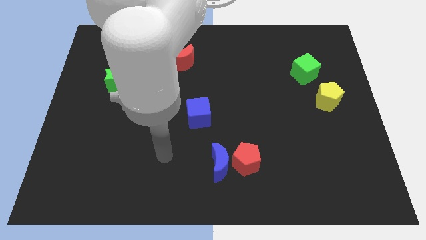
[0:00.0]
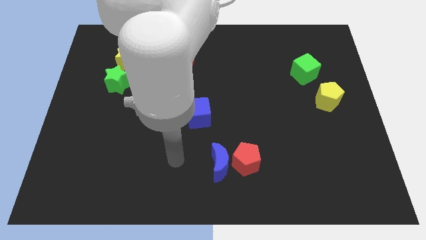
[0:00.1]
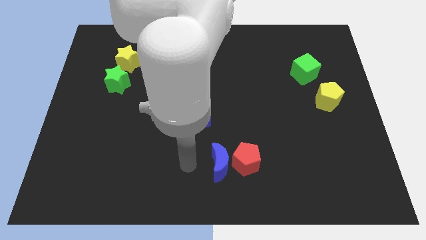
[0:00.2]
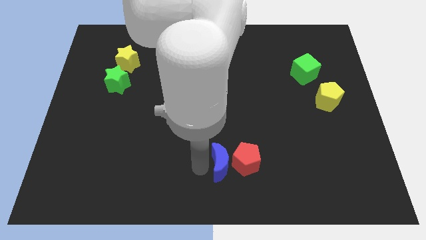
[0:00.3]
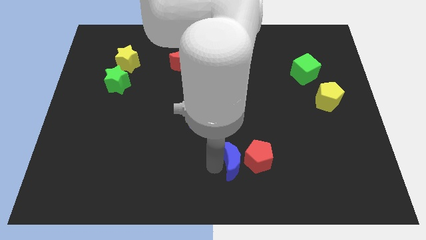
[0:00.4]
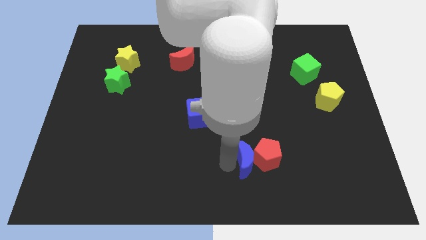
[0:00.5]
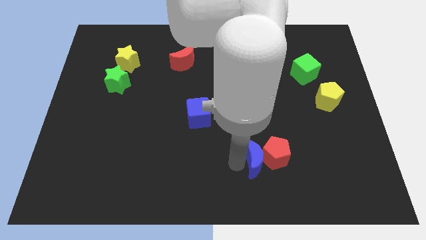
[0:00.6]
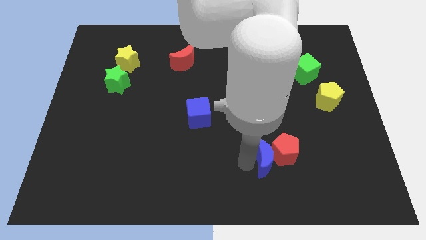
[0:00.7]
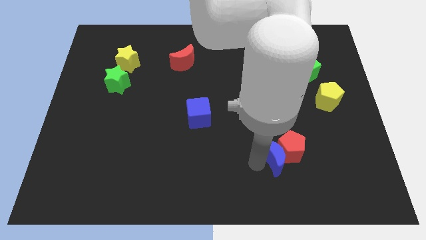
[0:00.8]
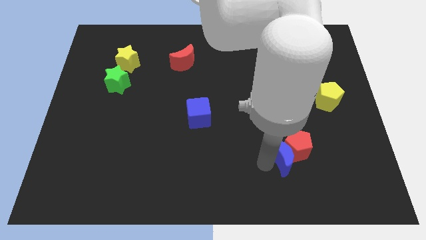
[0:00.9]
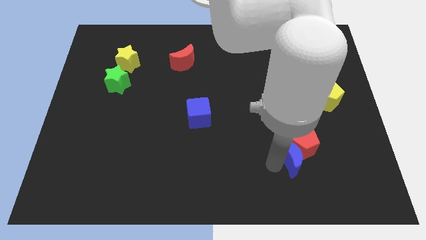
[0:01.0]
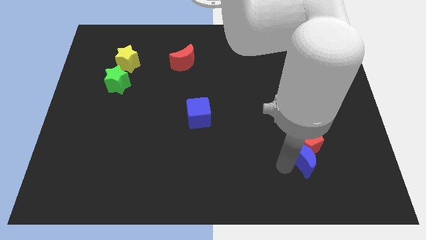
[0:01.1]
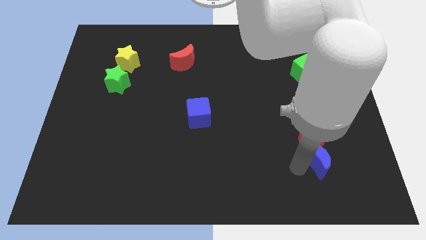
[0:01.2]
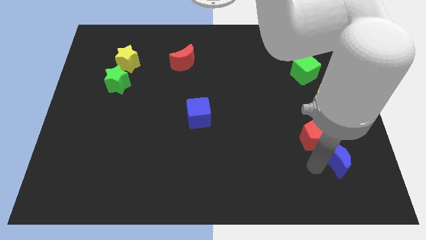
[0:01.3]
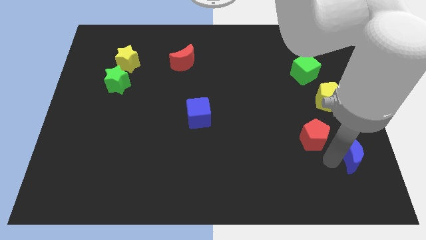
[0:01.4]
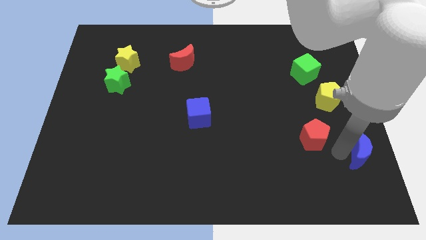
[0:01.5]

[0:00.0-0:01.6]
pull the red pentagon apart from the blue moon

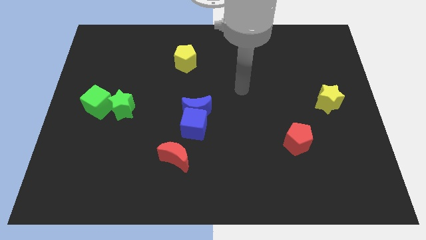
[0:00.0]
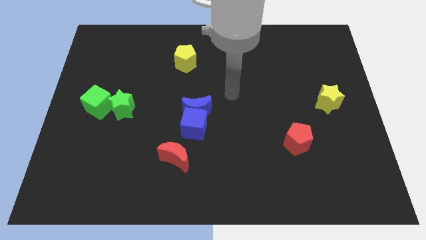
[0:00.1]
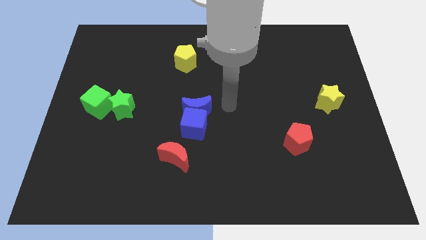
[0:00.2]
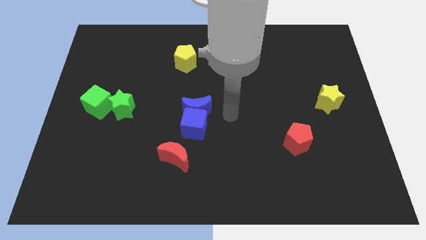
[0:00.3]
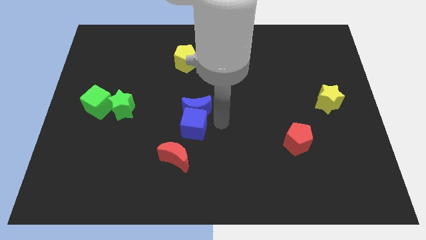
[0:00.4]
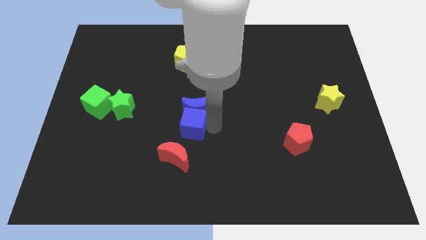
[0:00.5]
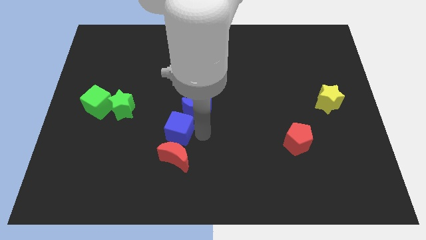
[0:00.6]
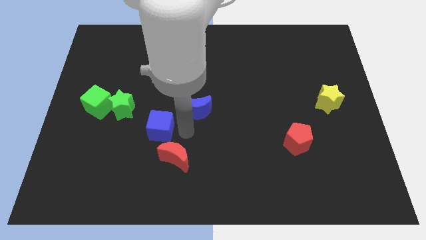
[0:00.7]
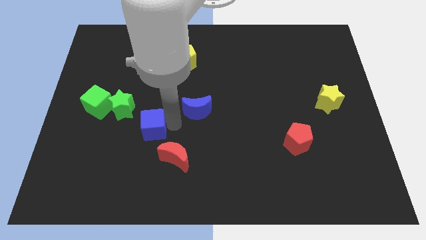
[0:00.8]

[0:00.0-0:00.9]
pull the blue moon apart from the blue cube

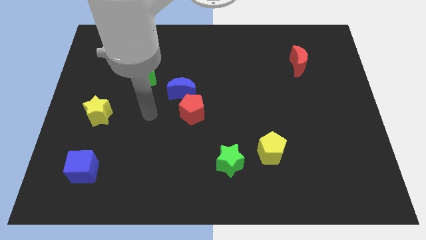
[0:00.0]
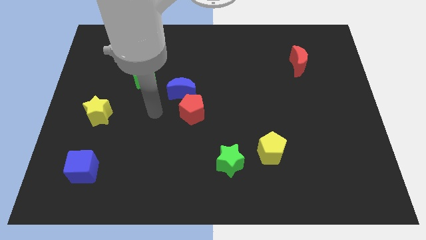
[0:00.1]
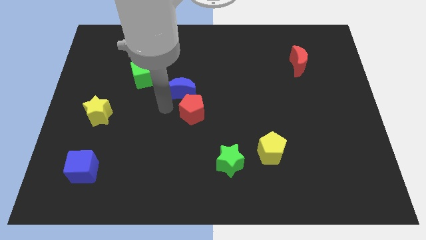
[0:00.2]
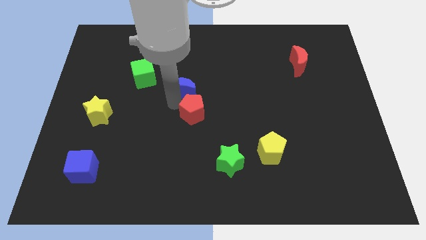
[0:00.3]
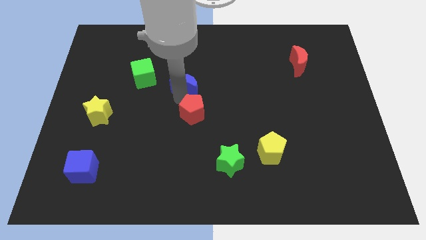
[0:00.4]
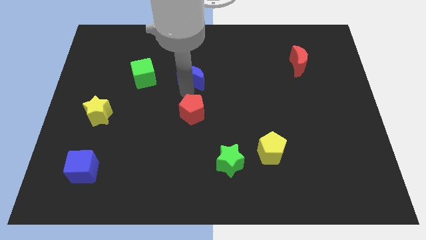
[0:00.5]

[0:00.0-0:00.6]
separate the red pentagon from the blue moon

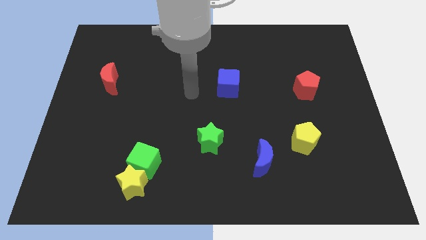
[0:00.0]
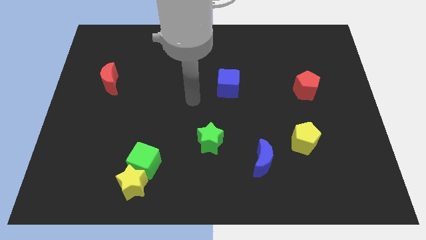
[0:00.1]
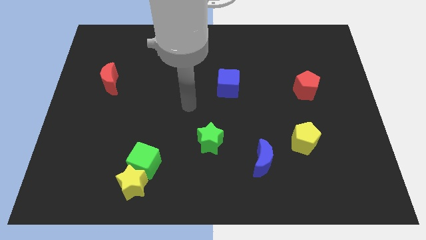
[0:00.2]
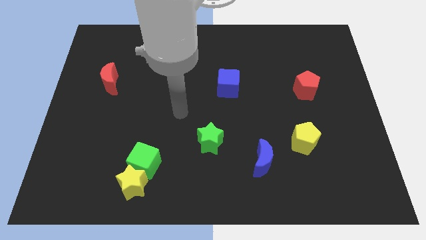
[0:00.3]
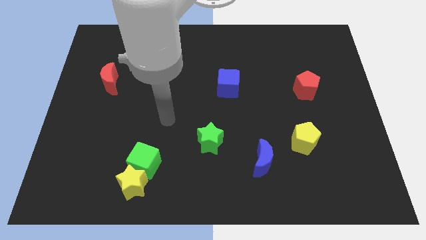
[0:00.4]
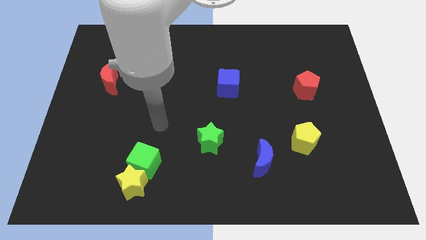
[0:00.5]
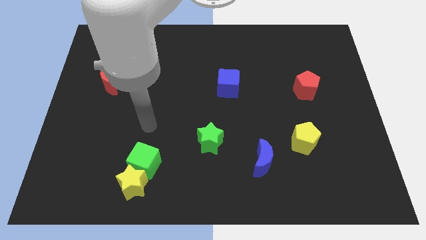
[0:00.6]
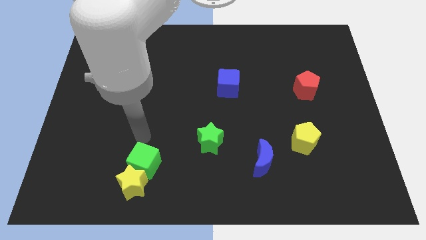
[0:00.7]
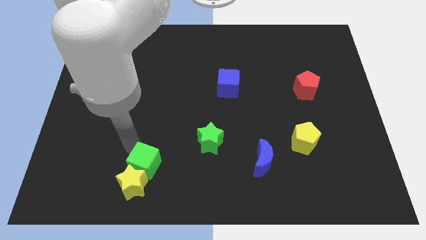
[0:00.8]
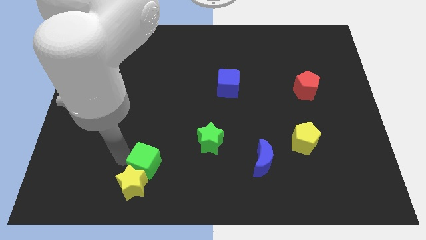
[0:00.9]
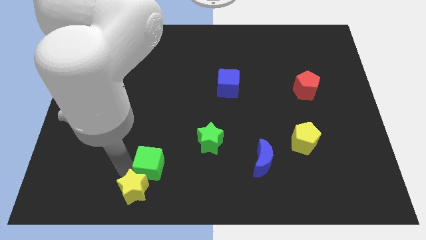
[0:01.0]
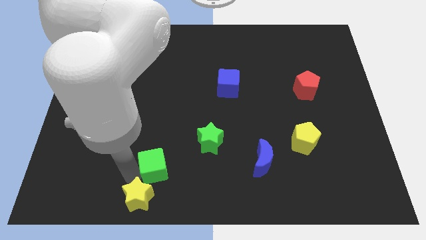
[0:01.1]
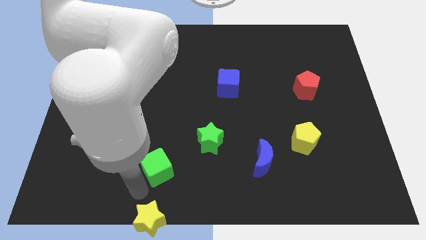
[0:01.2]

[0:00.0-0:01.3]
separate the green cube from the yellow star

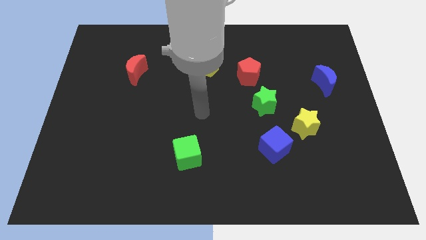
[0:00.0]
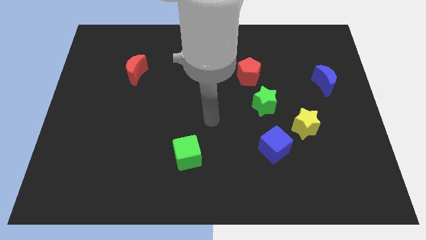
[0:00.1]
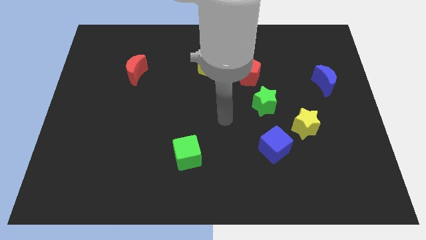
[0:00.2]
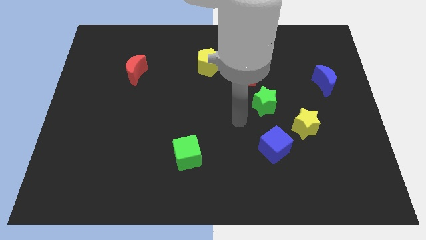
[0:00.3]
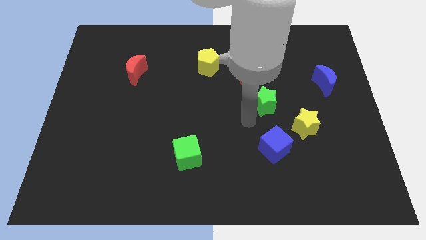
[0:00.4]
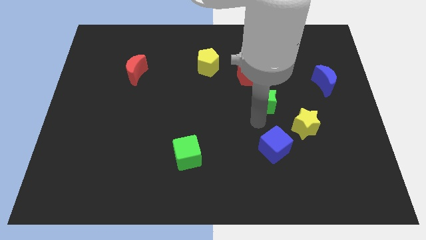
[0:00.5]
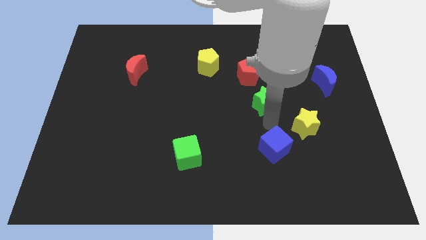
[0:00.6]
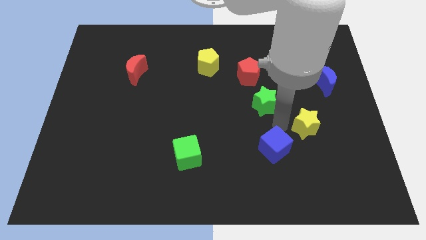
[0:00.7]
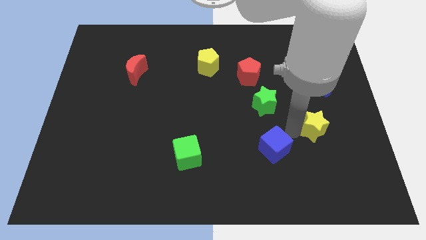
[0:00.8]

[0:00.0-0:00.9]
separate the blue cube from the yellow star

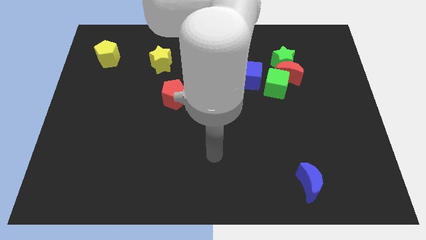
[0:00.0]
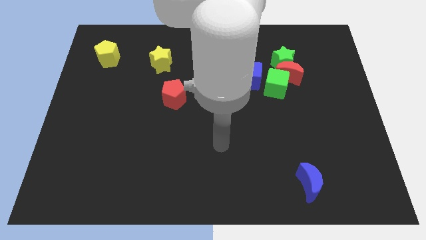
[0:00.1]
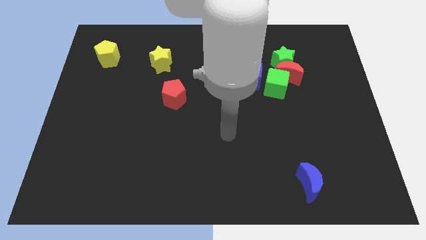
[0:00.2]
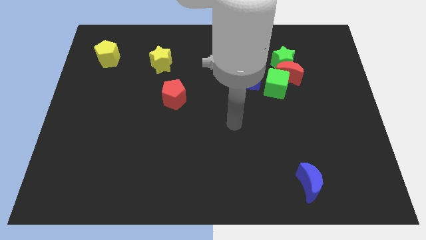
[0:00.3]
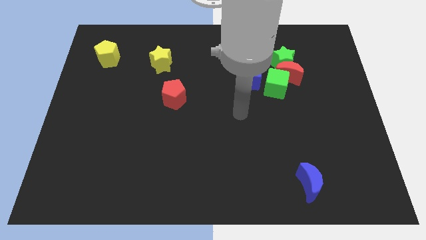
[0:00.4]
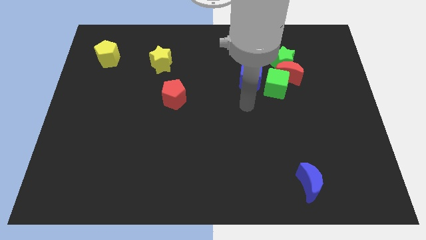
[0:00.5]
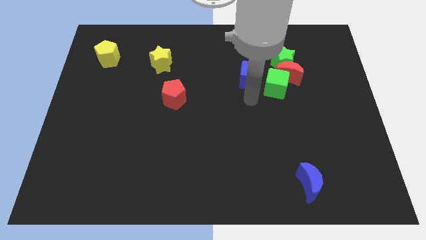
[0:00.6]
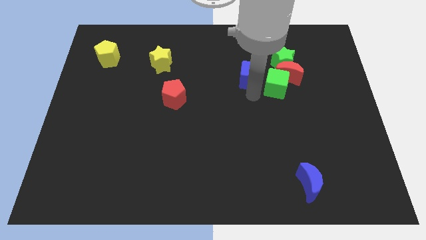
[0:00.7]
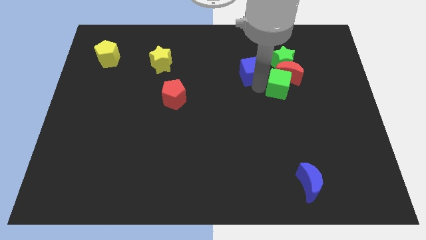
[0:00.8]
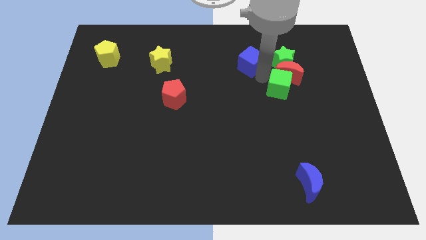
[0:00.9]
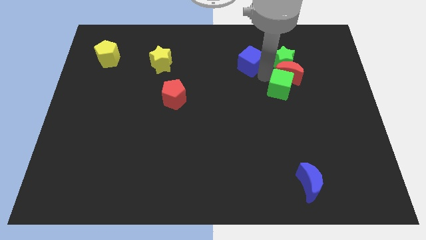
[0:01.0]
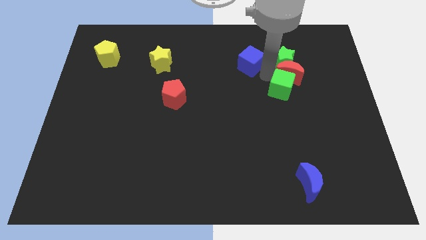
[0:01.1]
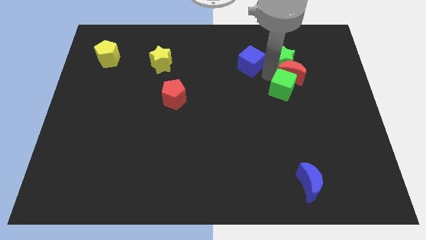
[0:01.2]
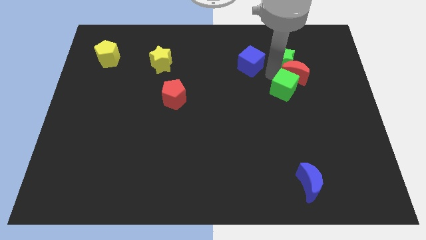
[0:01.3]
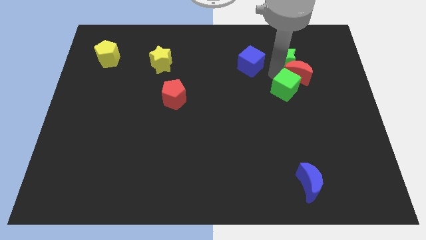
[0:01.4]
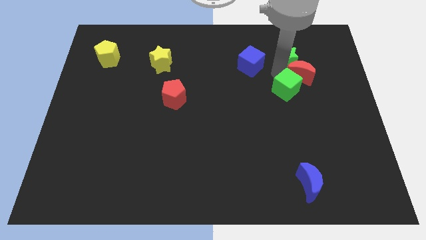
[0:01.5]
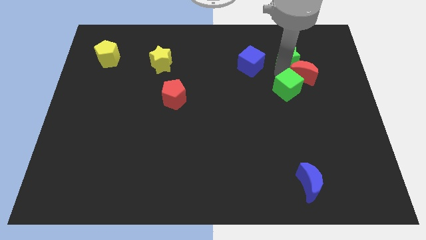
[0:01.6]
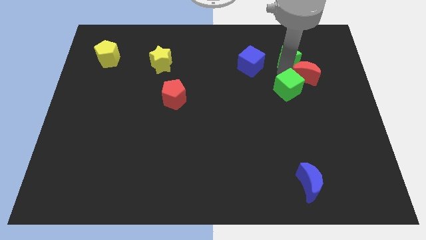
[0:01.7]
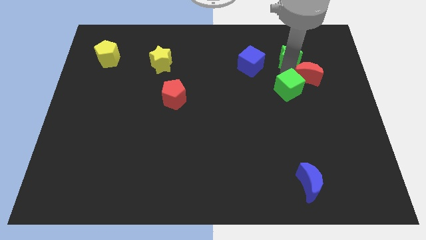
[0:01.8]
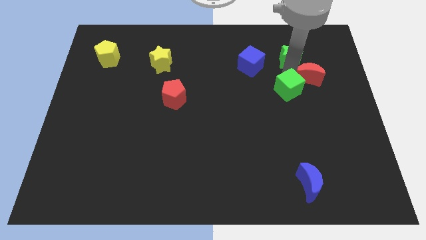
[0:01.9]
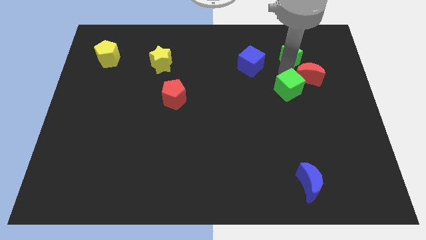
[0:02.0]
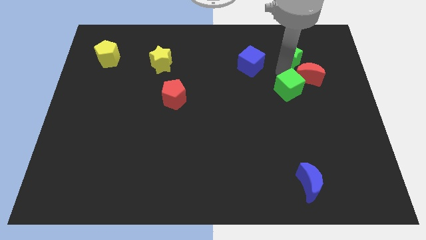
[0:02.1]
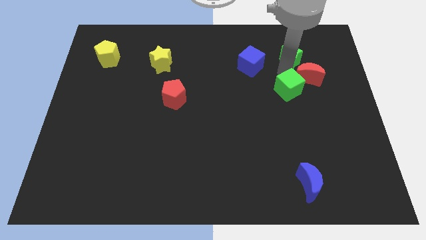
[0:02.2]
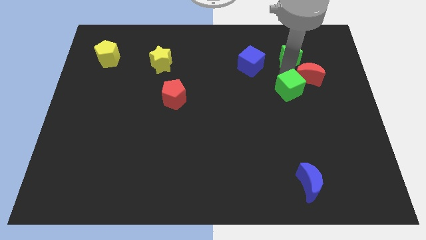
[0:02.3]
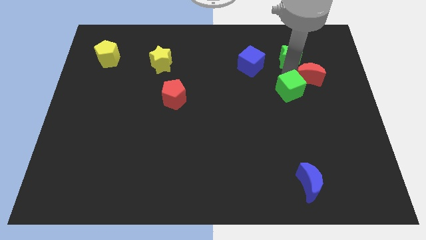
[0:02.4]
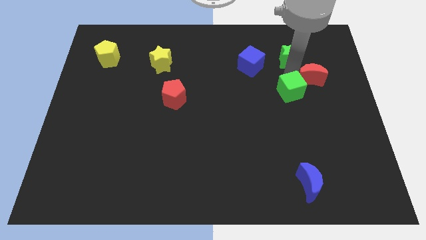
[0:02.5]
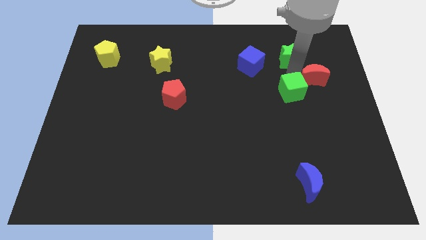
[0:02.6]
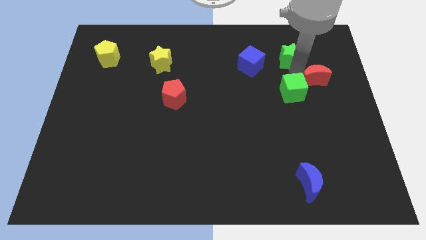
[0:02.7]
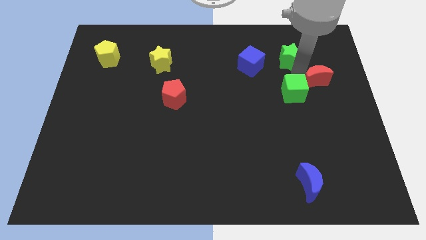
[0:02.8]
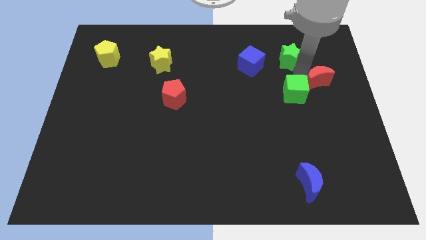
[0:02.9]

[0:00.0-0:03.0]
move the red moon away from the green star, green cube, and blue cube

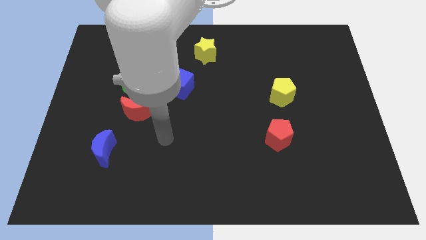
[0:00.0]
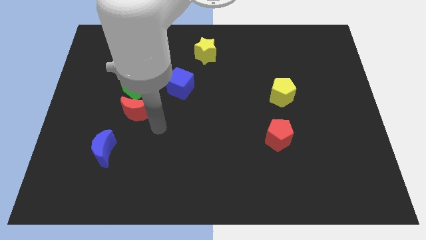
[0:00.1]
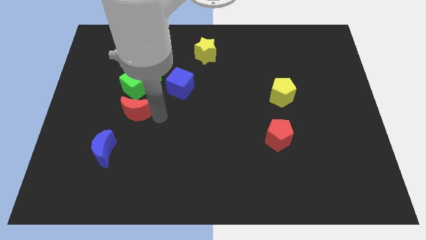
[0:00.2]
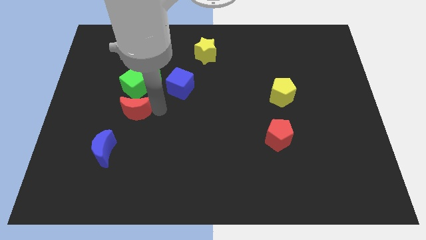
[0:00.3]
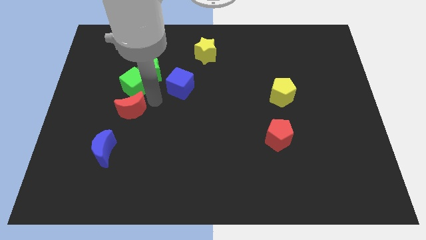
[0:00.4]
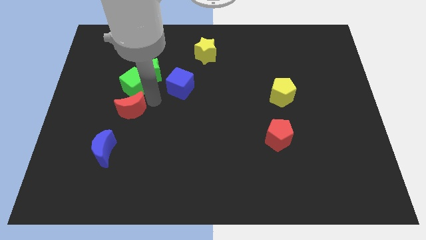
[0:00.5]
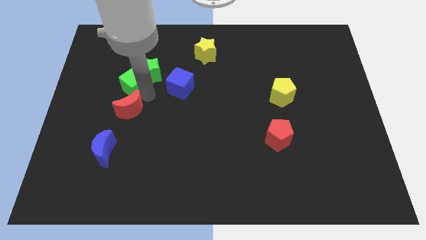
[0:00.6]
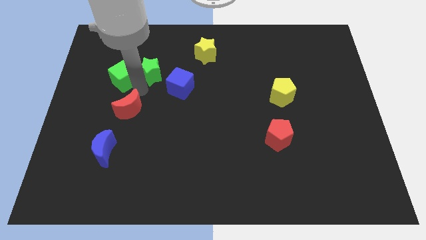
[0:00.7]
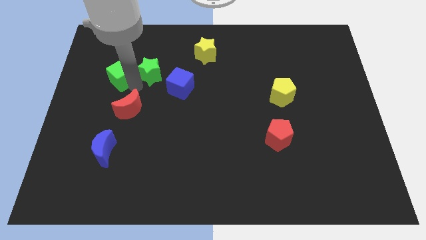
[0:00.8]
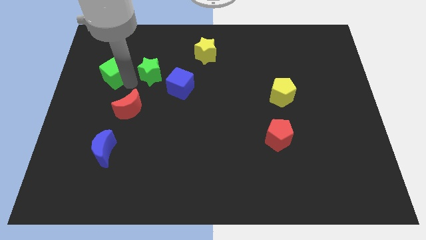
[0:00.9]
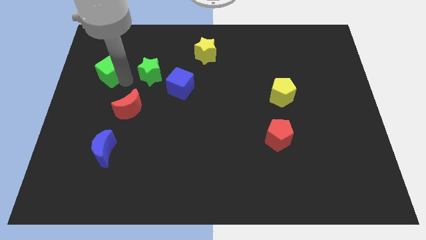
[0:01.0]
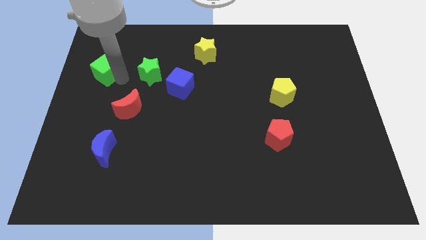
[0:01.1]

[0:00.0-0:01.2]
move the green cube away from the green star and red moon
